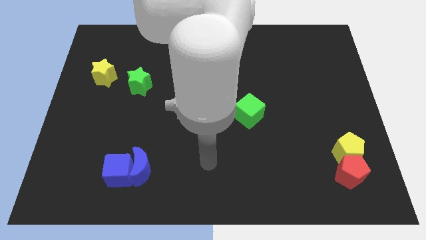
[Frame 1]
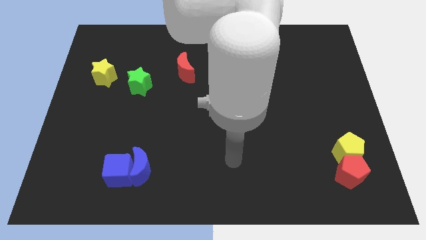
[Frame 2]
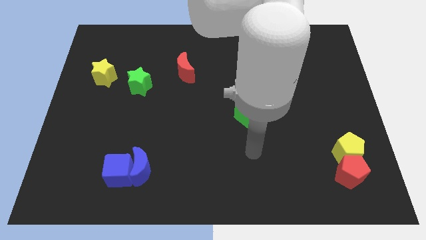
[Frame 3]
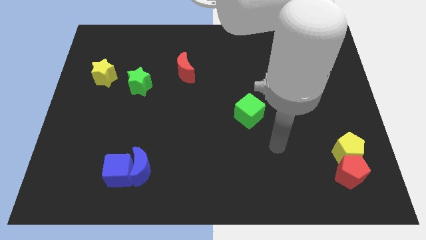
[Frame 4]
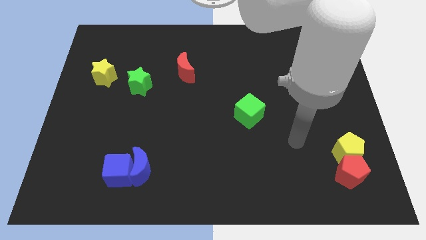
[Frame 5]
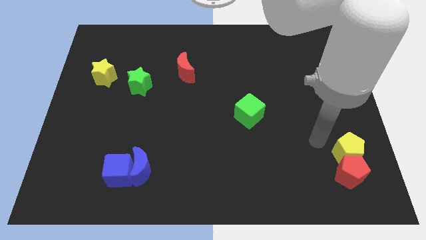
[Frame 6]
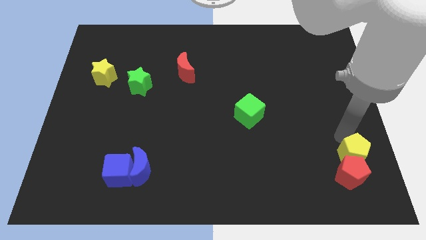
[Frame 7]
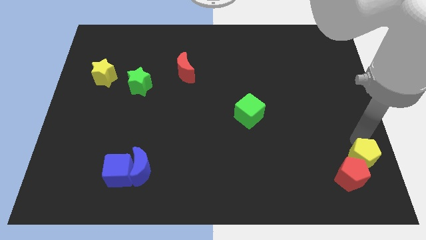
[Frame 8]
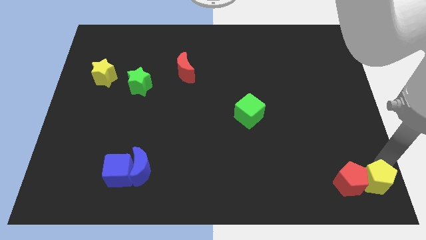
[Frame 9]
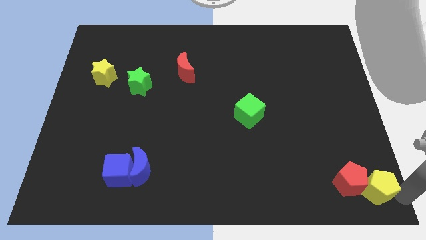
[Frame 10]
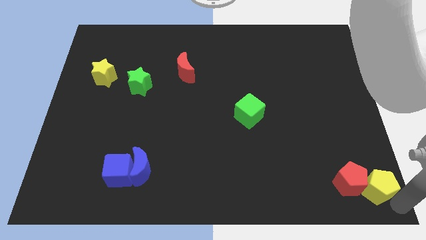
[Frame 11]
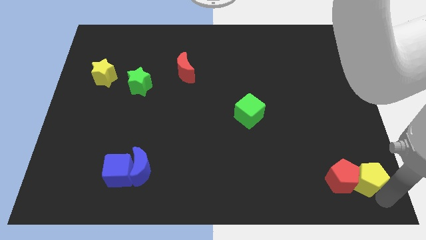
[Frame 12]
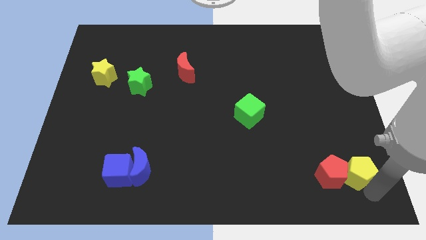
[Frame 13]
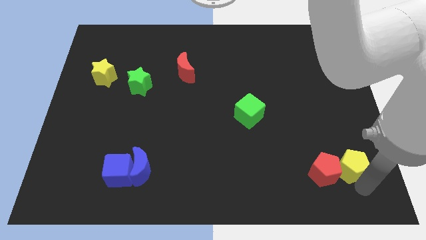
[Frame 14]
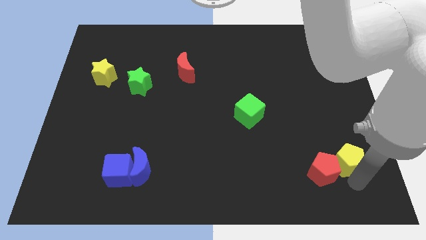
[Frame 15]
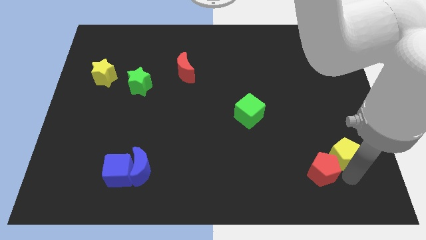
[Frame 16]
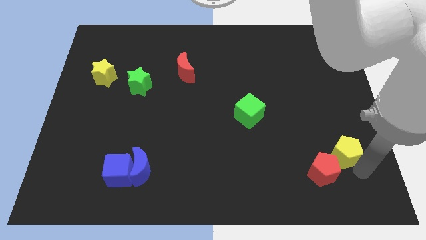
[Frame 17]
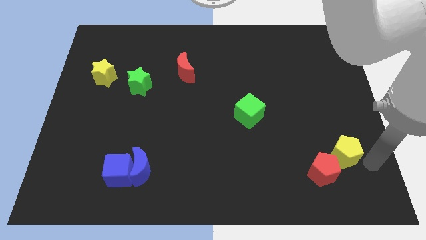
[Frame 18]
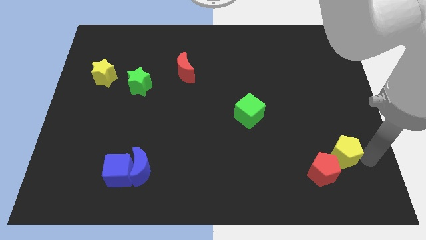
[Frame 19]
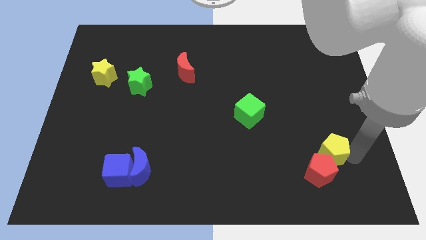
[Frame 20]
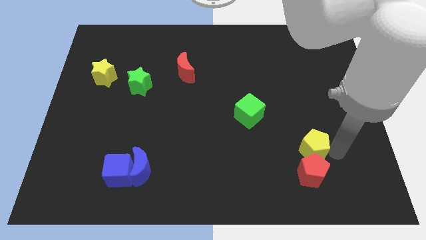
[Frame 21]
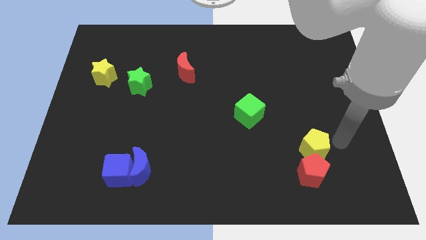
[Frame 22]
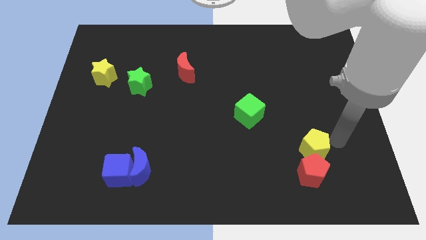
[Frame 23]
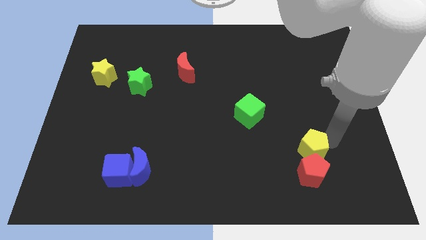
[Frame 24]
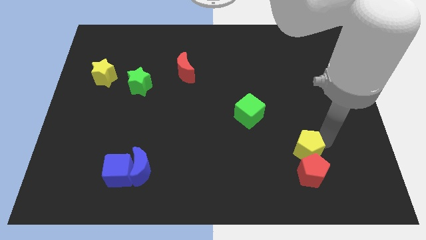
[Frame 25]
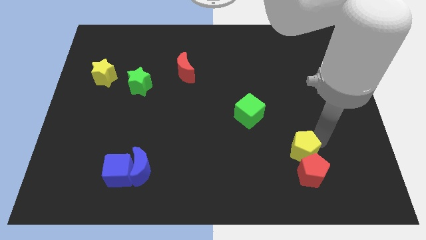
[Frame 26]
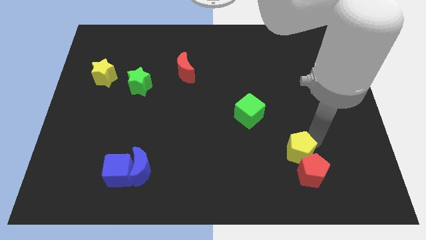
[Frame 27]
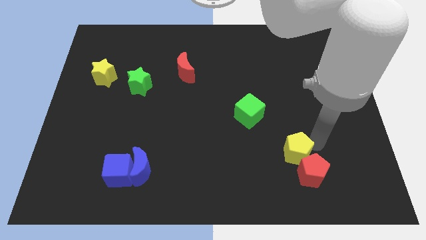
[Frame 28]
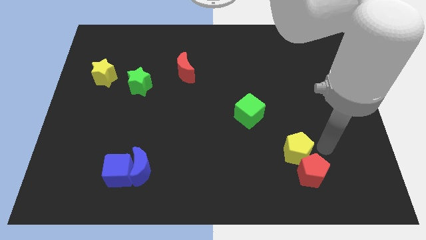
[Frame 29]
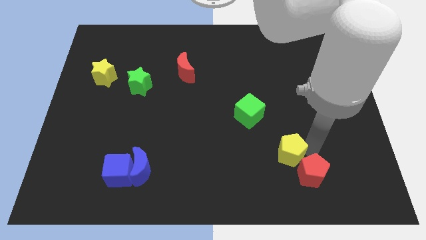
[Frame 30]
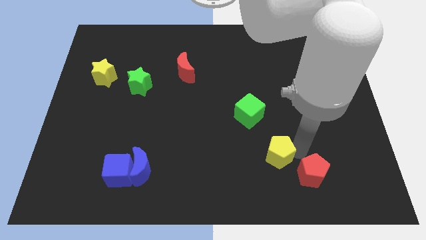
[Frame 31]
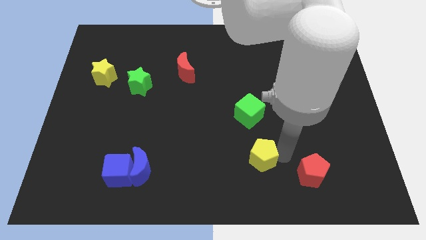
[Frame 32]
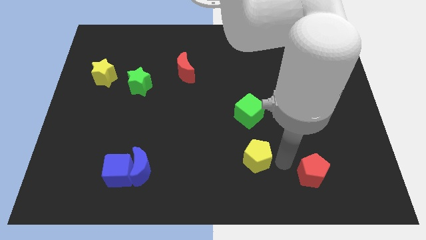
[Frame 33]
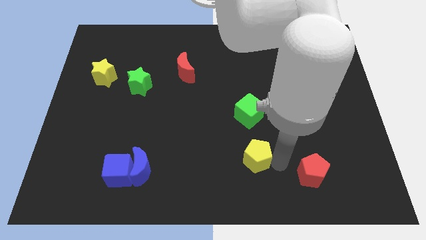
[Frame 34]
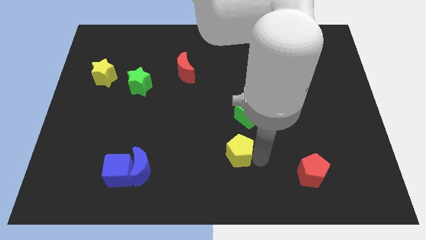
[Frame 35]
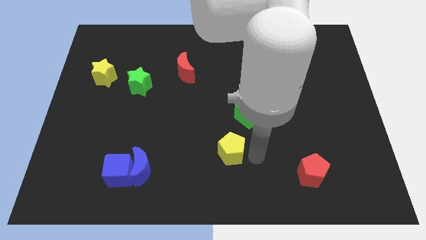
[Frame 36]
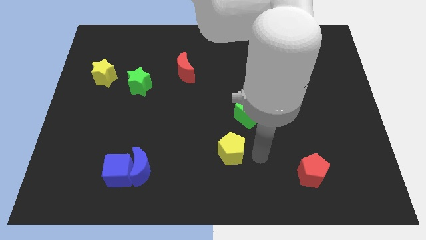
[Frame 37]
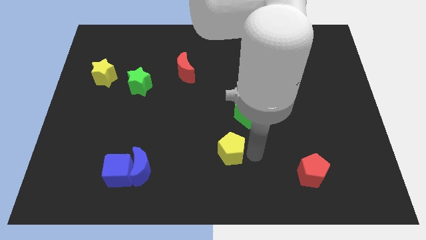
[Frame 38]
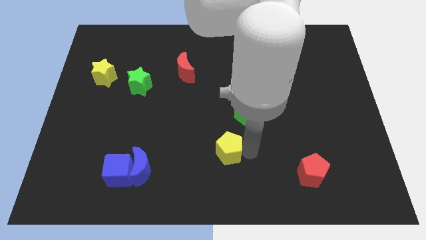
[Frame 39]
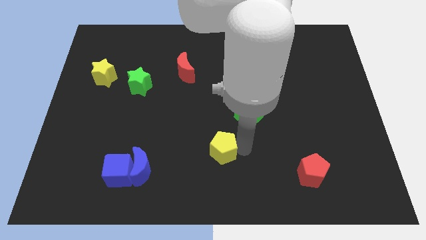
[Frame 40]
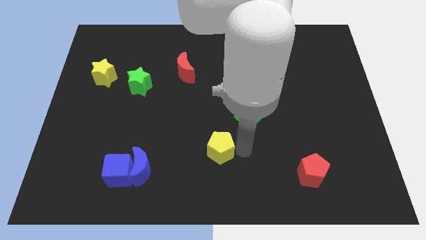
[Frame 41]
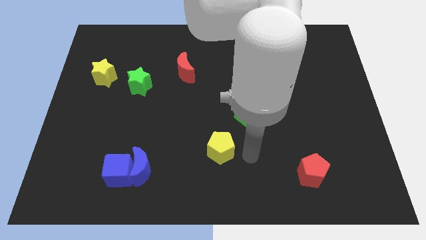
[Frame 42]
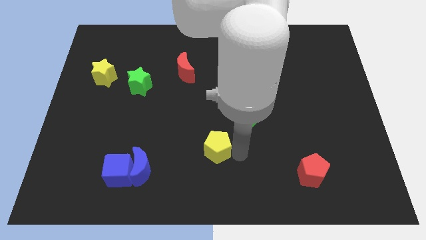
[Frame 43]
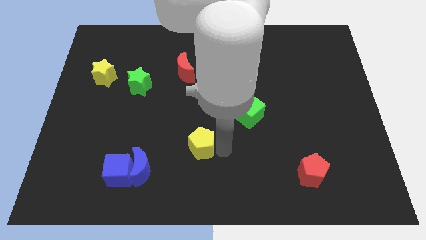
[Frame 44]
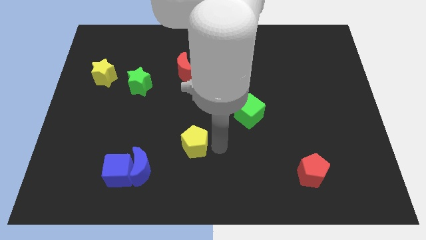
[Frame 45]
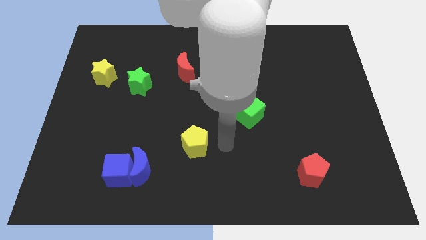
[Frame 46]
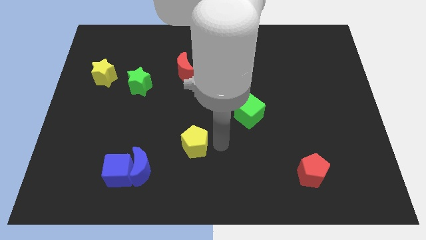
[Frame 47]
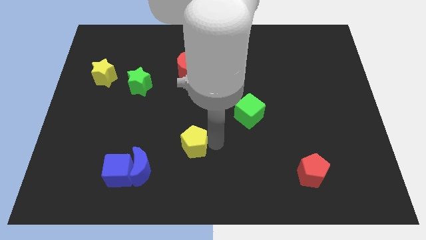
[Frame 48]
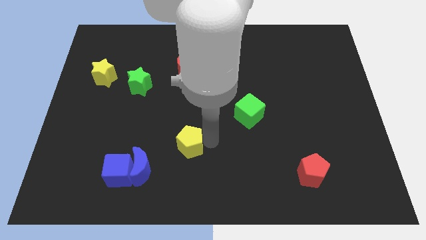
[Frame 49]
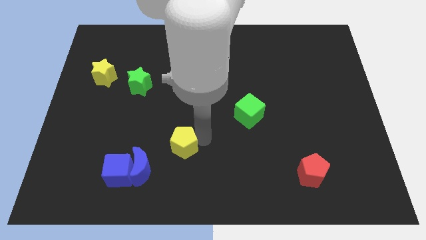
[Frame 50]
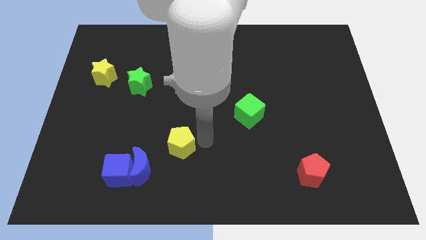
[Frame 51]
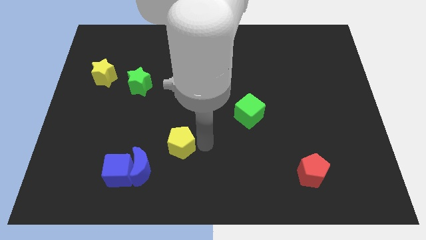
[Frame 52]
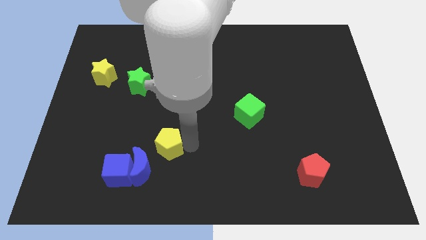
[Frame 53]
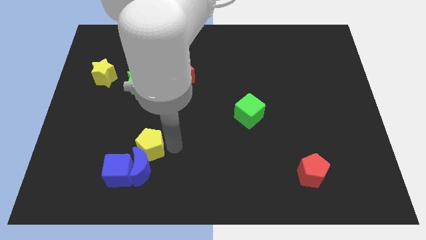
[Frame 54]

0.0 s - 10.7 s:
move the yellow pentagon to the top left side of the blue moon

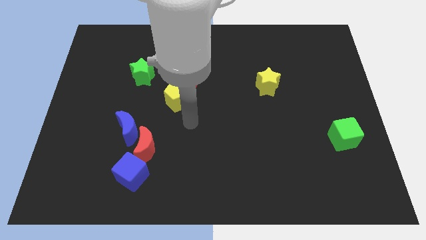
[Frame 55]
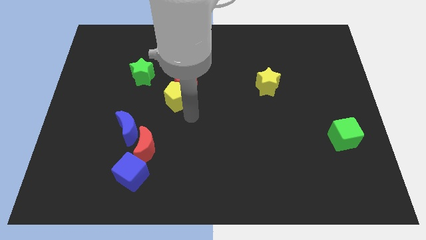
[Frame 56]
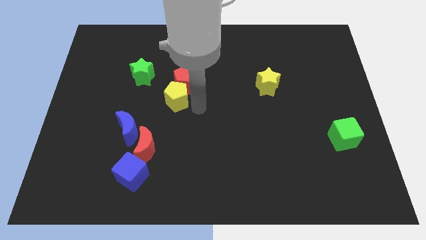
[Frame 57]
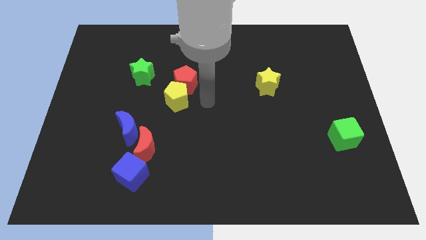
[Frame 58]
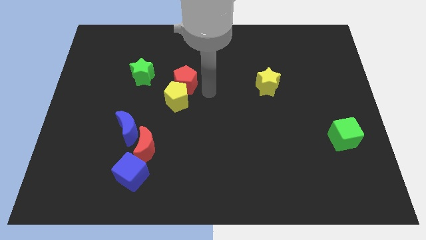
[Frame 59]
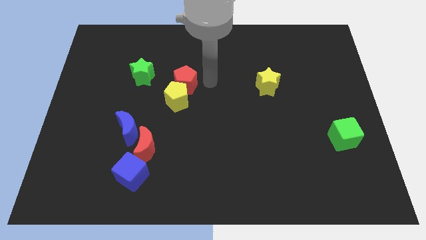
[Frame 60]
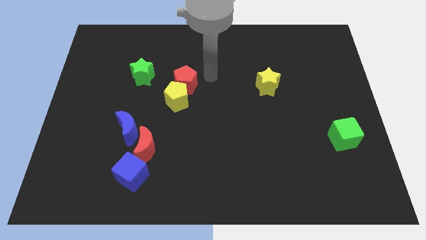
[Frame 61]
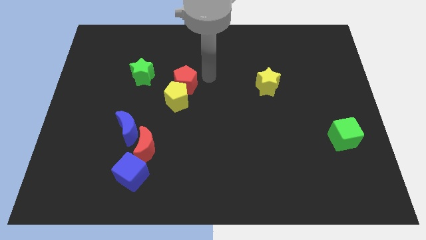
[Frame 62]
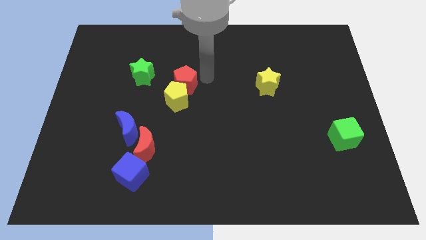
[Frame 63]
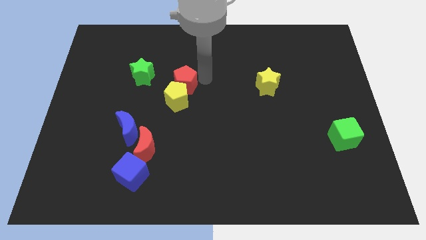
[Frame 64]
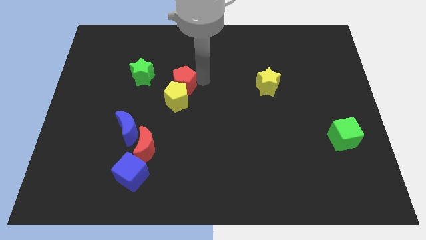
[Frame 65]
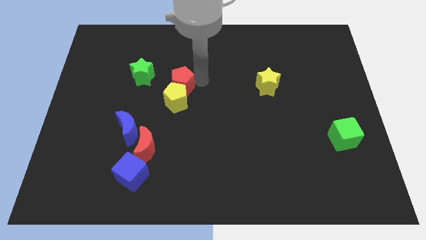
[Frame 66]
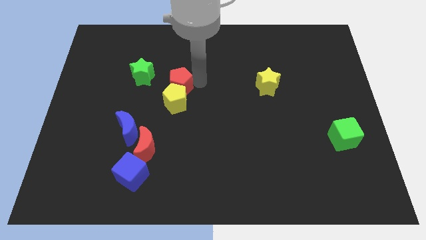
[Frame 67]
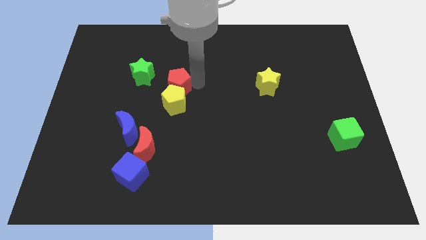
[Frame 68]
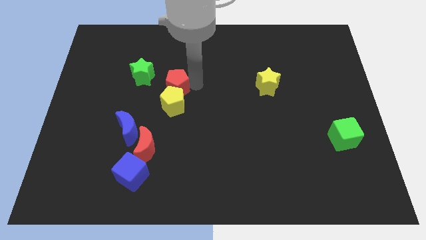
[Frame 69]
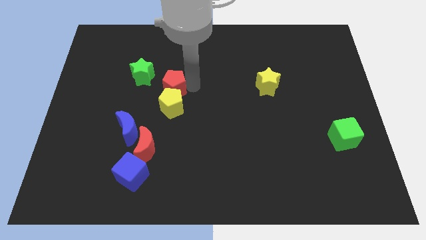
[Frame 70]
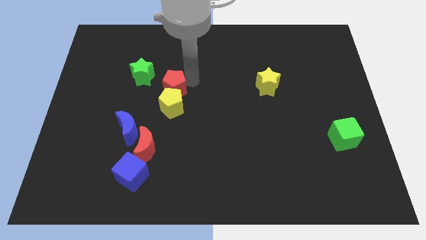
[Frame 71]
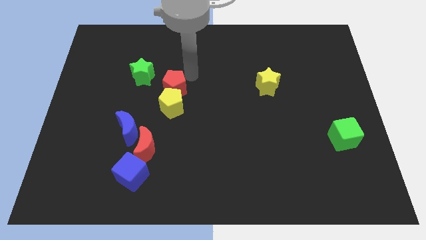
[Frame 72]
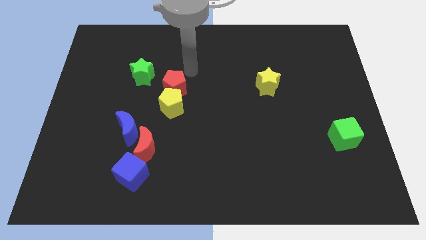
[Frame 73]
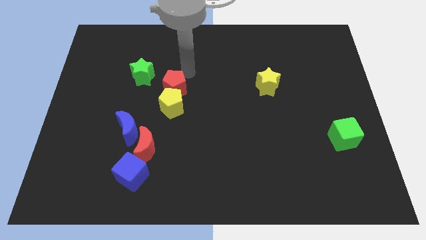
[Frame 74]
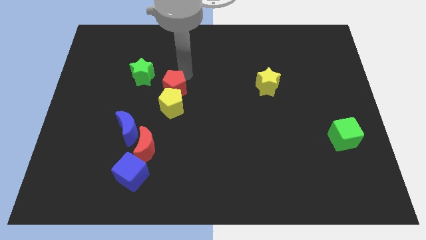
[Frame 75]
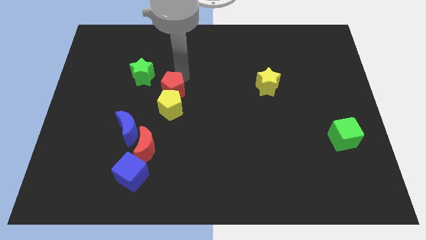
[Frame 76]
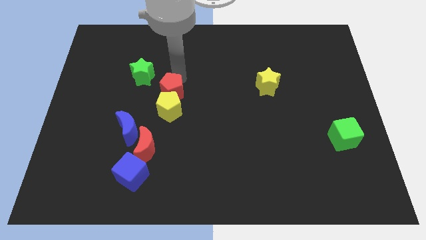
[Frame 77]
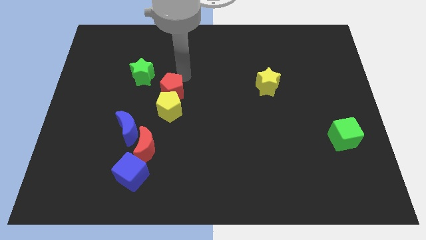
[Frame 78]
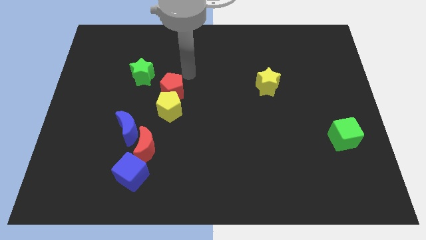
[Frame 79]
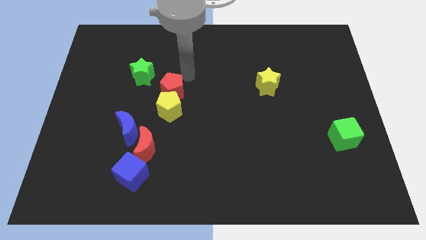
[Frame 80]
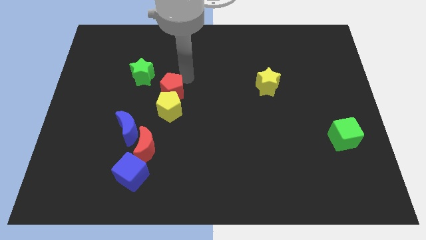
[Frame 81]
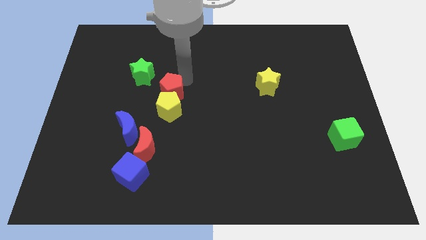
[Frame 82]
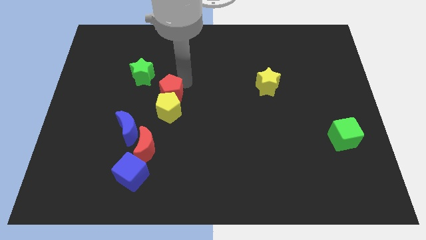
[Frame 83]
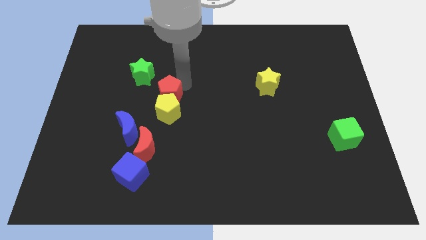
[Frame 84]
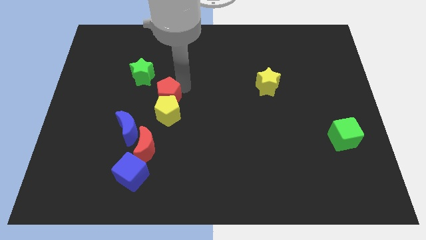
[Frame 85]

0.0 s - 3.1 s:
slide the red pentagon to the top right of the blue moon
